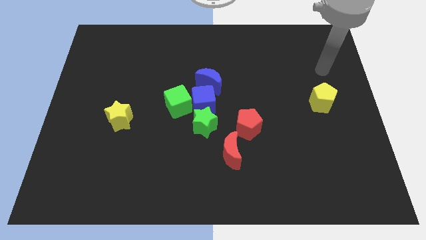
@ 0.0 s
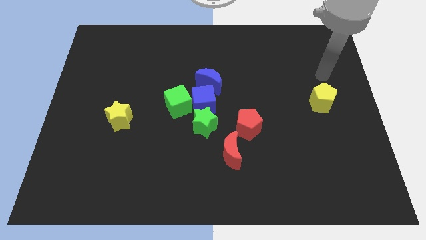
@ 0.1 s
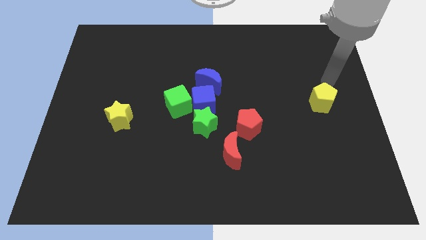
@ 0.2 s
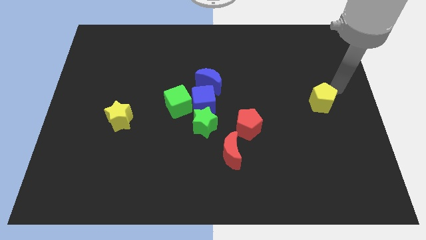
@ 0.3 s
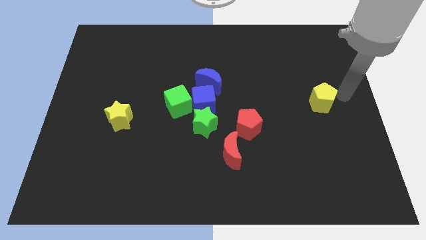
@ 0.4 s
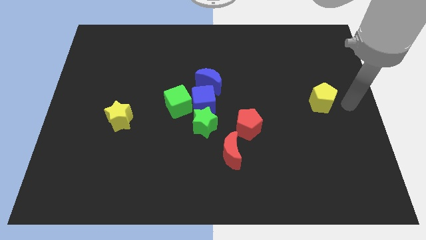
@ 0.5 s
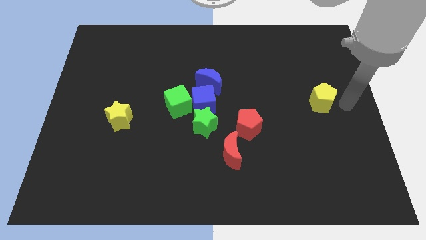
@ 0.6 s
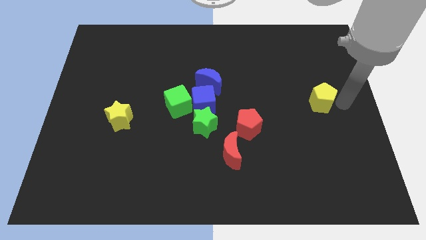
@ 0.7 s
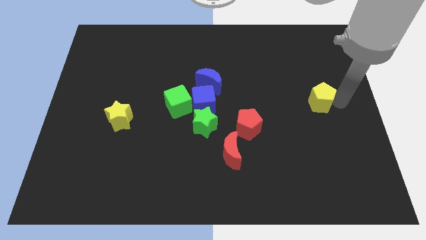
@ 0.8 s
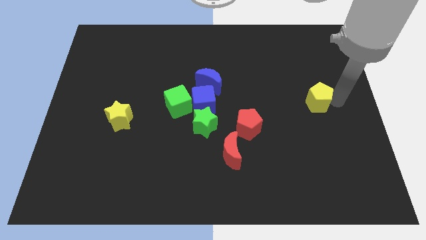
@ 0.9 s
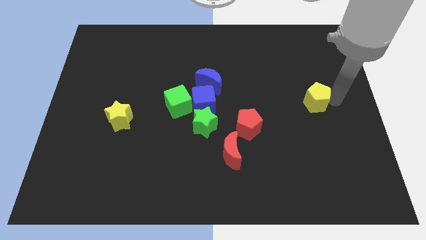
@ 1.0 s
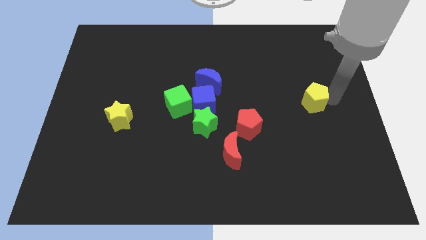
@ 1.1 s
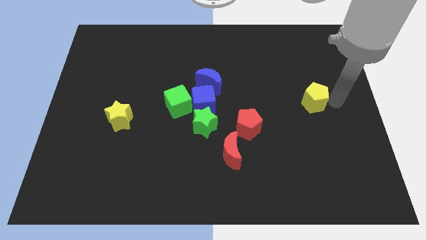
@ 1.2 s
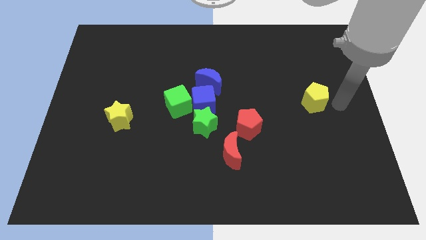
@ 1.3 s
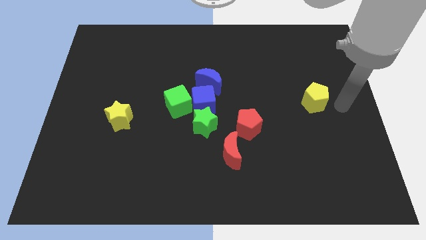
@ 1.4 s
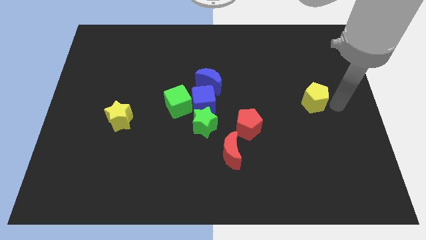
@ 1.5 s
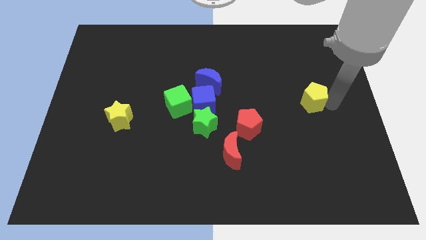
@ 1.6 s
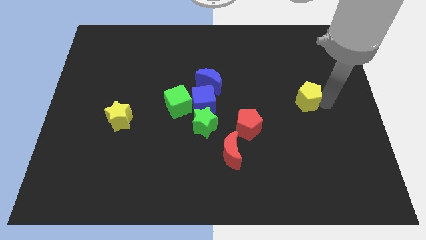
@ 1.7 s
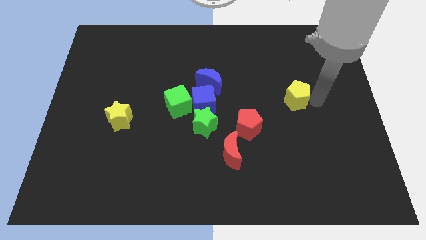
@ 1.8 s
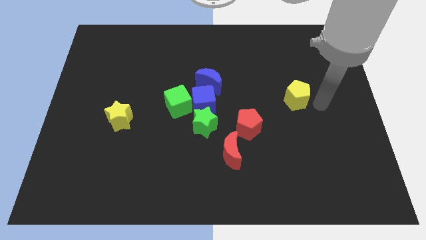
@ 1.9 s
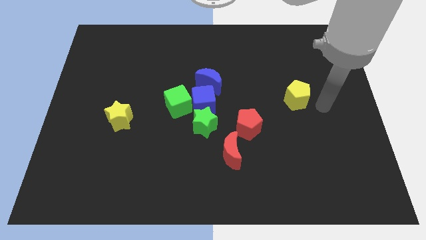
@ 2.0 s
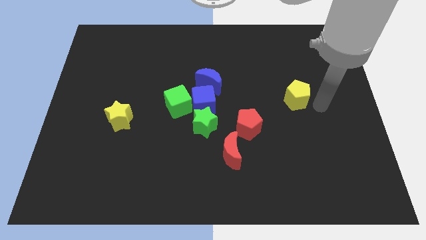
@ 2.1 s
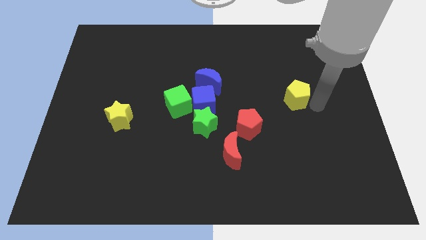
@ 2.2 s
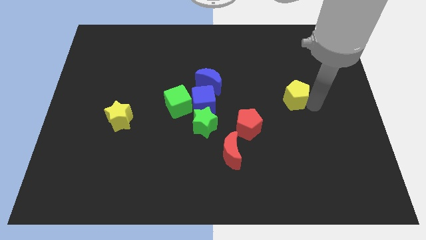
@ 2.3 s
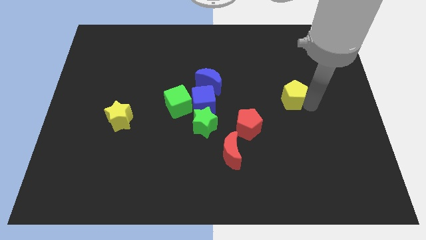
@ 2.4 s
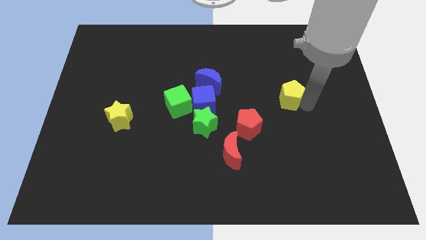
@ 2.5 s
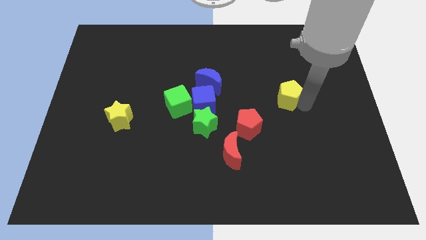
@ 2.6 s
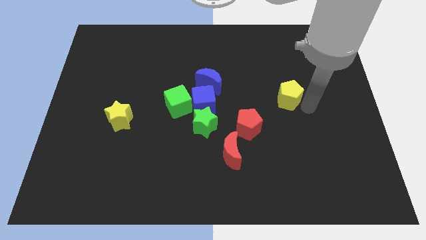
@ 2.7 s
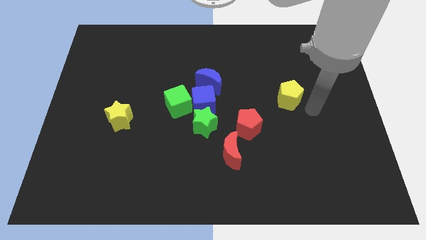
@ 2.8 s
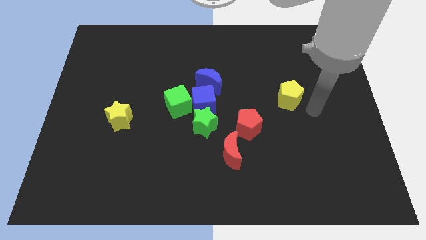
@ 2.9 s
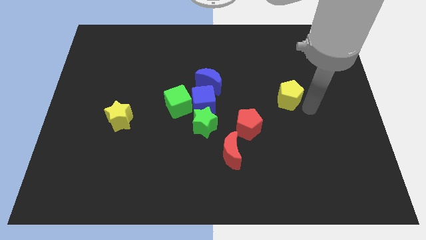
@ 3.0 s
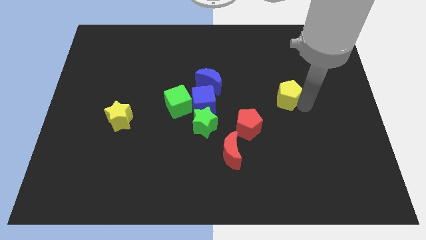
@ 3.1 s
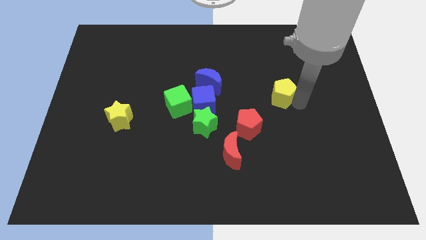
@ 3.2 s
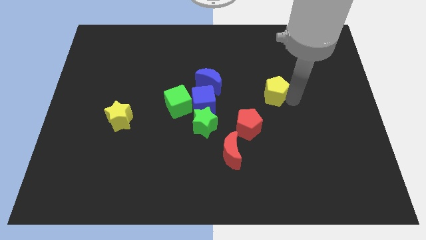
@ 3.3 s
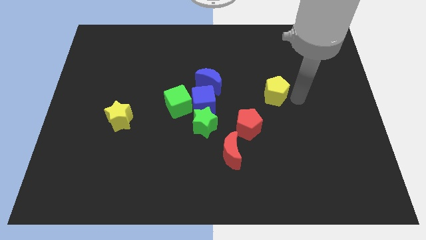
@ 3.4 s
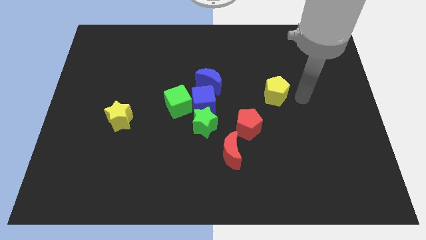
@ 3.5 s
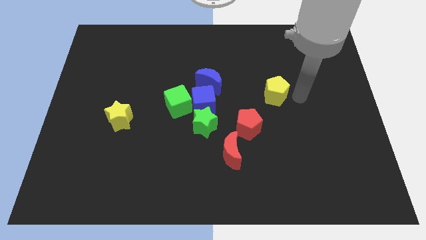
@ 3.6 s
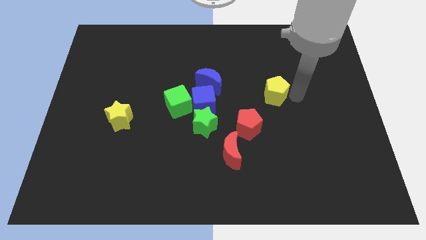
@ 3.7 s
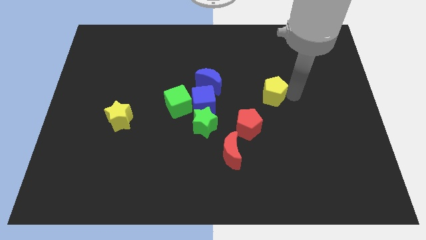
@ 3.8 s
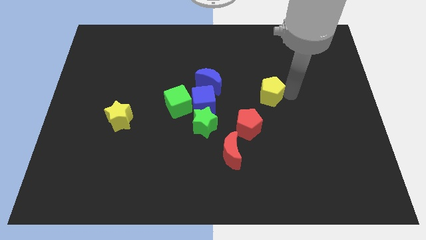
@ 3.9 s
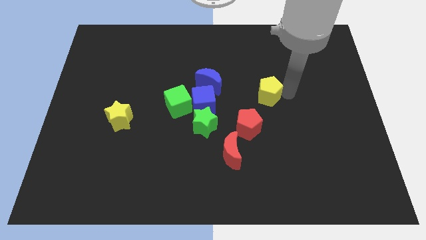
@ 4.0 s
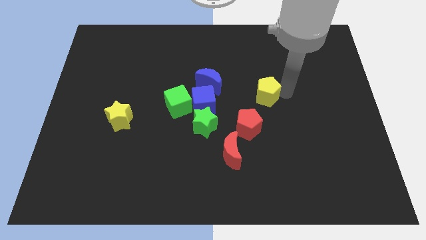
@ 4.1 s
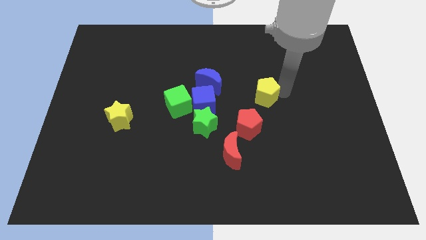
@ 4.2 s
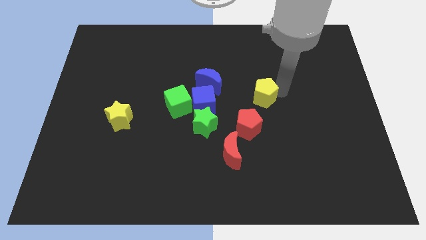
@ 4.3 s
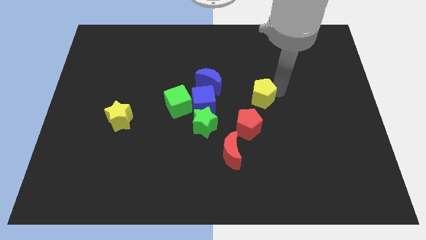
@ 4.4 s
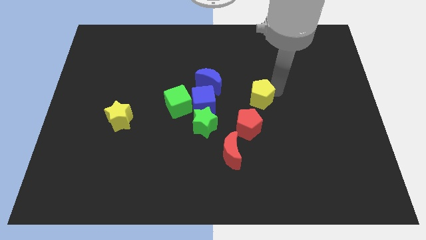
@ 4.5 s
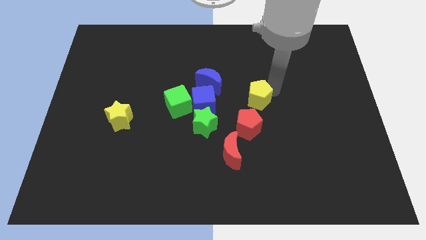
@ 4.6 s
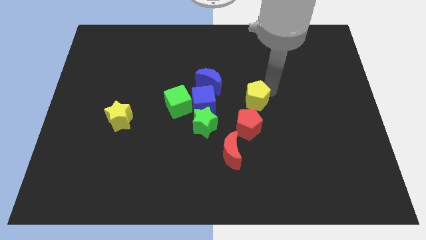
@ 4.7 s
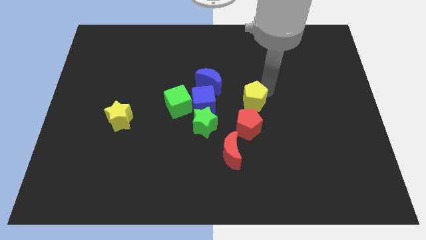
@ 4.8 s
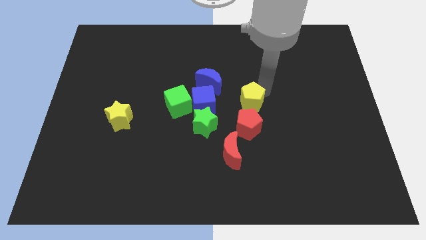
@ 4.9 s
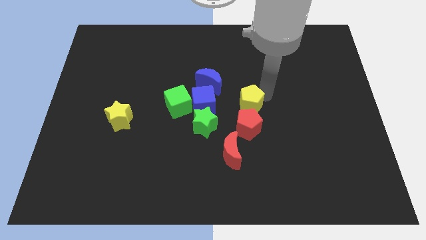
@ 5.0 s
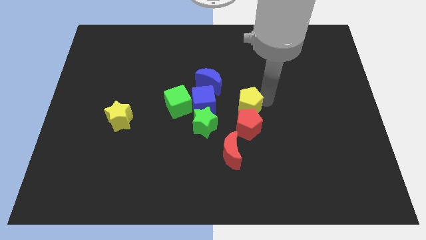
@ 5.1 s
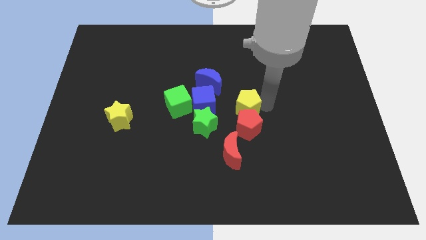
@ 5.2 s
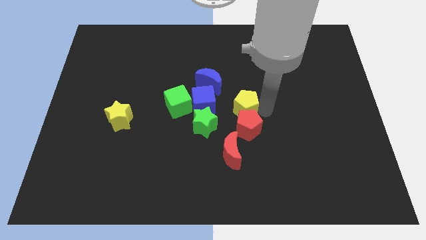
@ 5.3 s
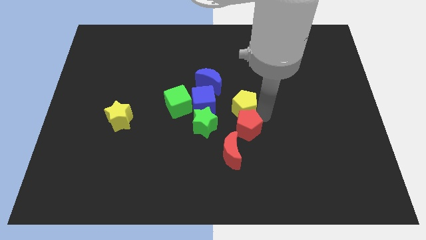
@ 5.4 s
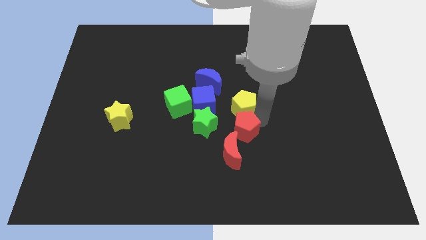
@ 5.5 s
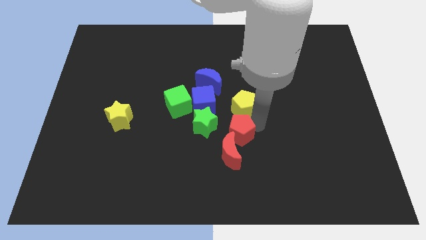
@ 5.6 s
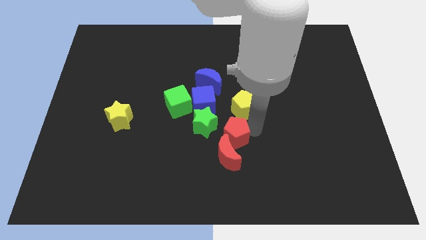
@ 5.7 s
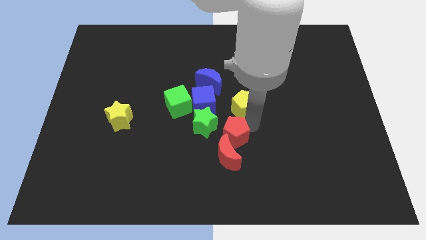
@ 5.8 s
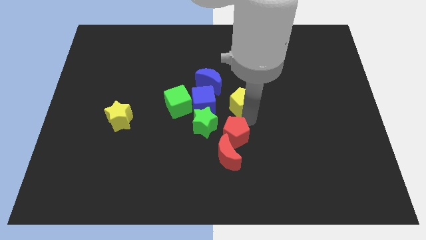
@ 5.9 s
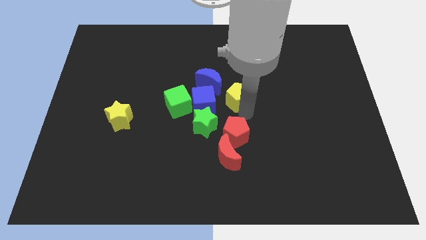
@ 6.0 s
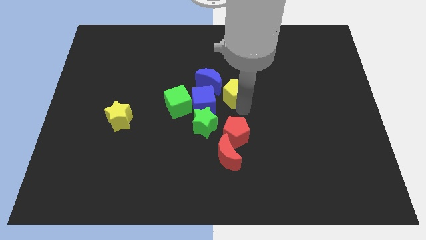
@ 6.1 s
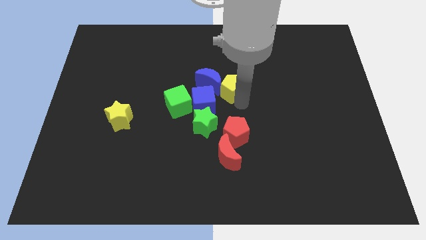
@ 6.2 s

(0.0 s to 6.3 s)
slide the yellow pentagon to the blue moon

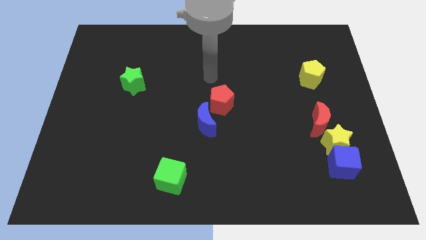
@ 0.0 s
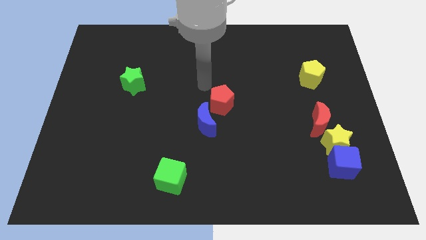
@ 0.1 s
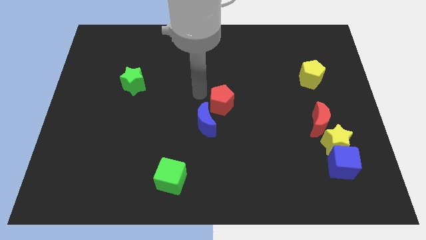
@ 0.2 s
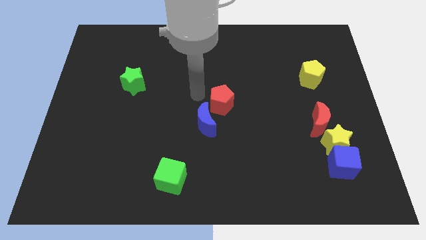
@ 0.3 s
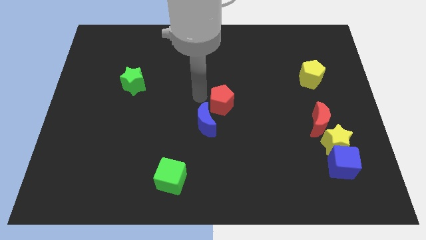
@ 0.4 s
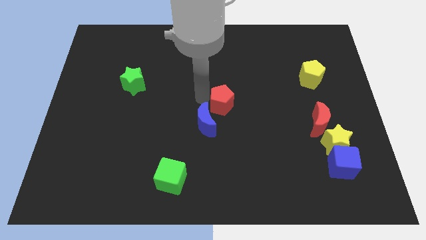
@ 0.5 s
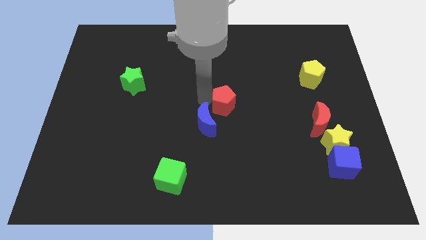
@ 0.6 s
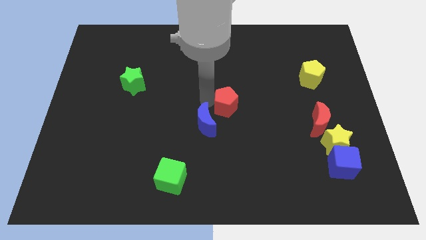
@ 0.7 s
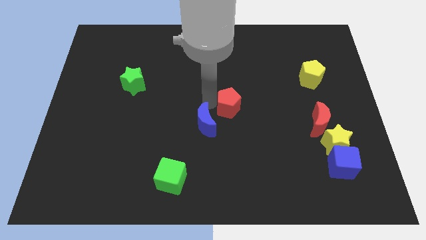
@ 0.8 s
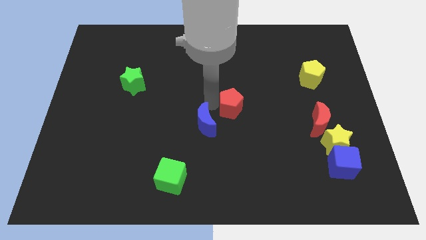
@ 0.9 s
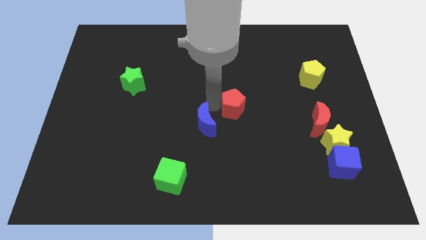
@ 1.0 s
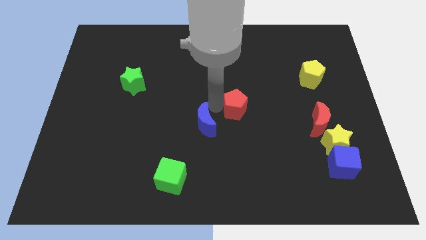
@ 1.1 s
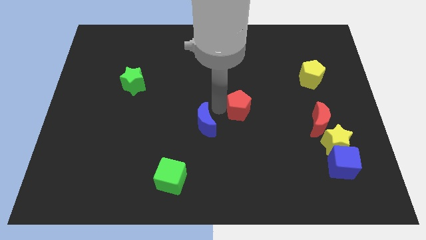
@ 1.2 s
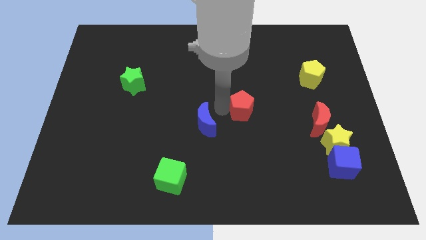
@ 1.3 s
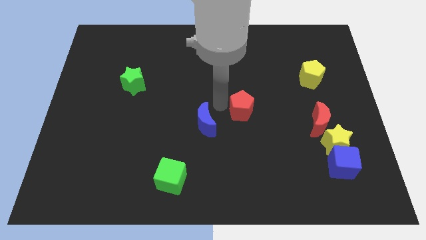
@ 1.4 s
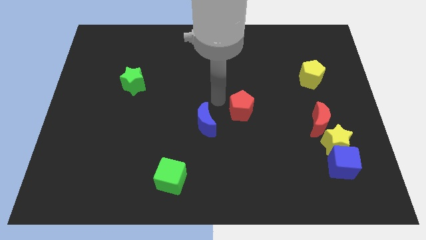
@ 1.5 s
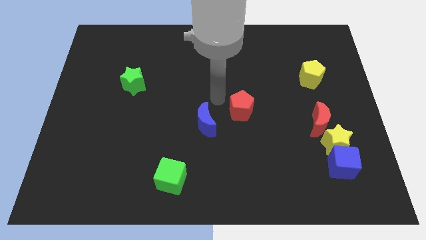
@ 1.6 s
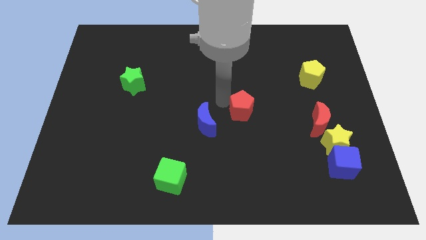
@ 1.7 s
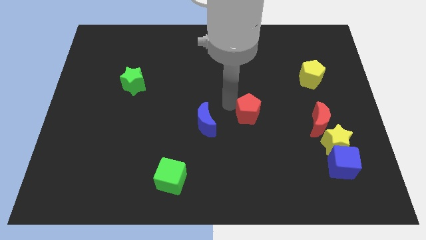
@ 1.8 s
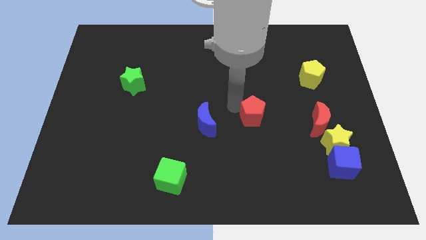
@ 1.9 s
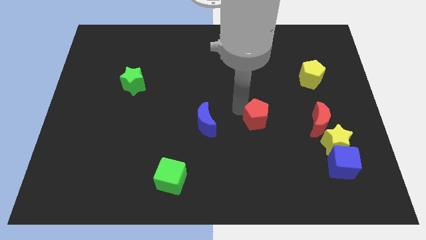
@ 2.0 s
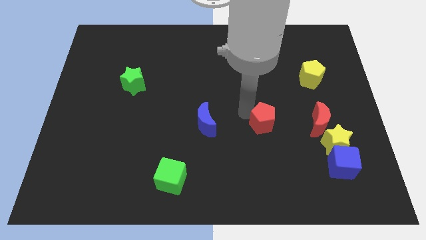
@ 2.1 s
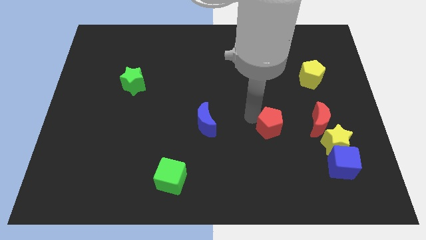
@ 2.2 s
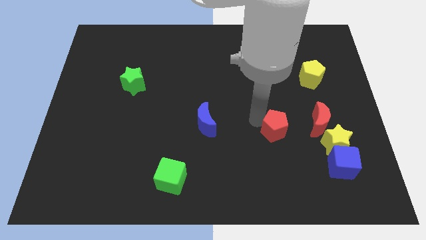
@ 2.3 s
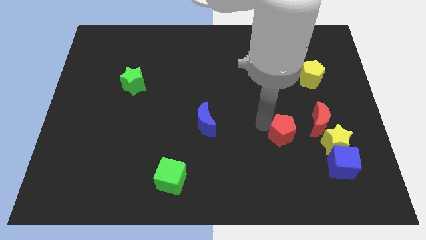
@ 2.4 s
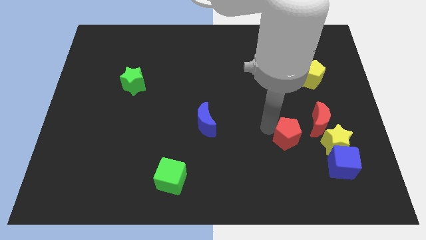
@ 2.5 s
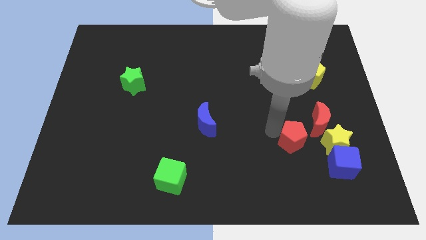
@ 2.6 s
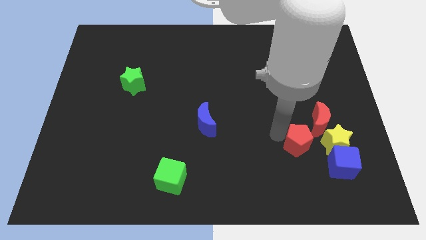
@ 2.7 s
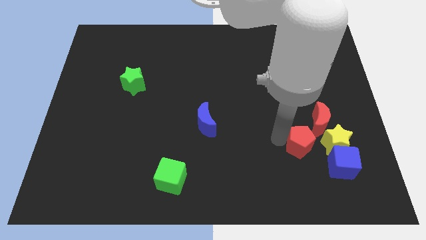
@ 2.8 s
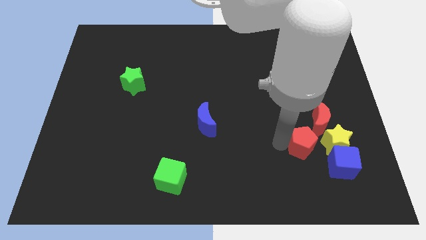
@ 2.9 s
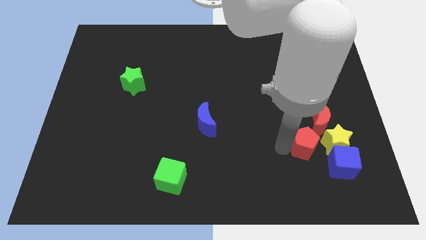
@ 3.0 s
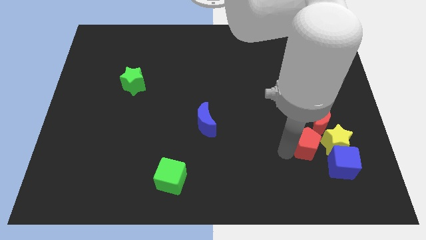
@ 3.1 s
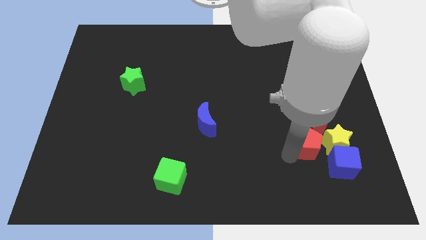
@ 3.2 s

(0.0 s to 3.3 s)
put the red pentagon towards the yellow star
